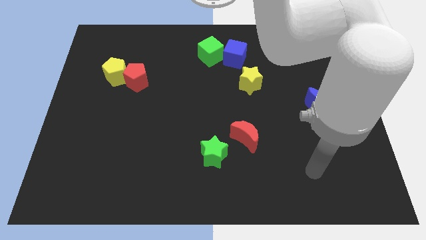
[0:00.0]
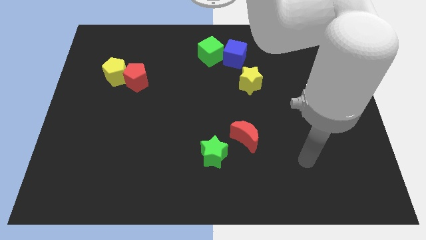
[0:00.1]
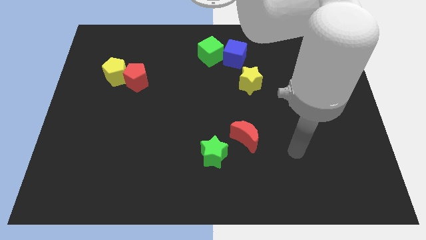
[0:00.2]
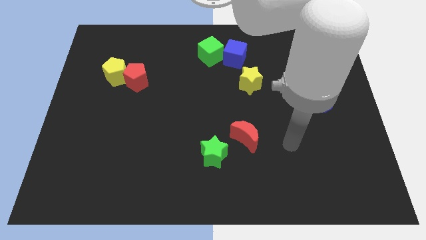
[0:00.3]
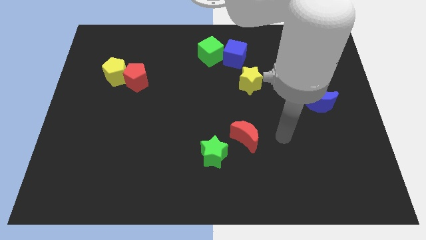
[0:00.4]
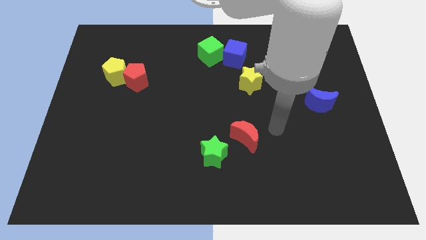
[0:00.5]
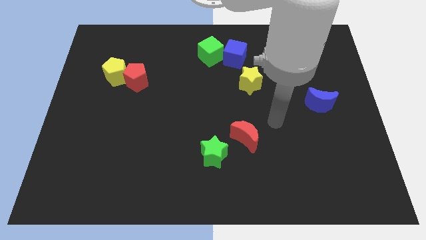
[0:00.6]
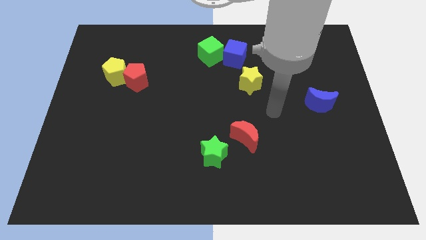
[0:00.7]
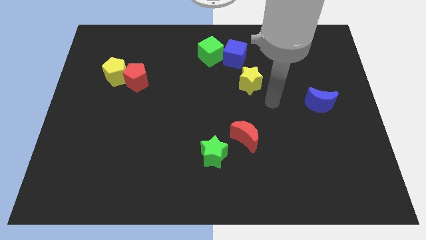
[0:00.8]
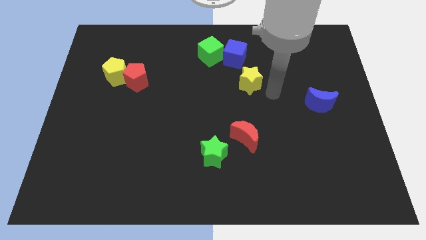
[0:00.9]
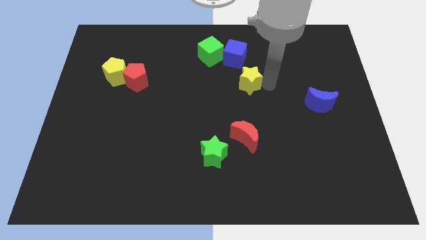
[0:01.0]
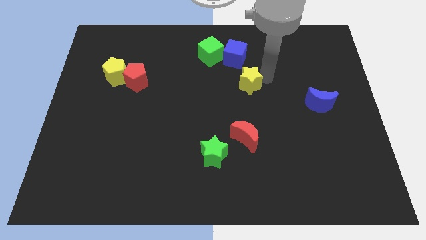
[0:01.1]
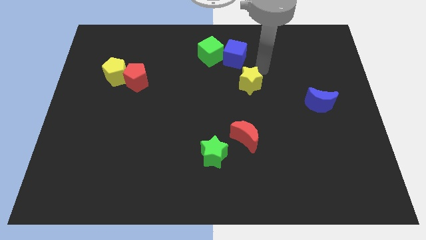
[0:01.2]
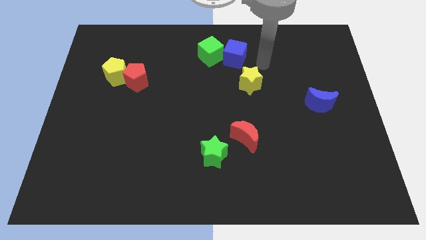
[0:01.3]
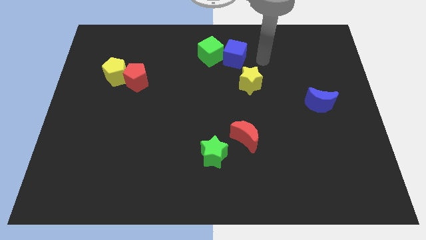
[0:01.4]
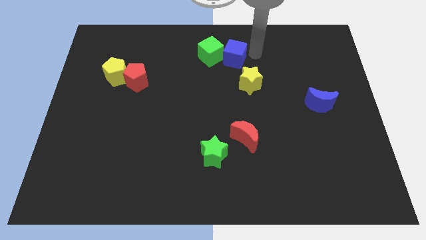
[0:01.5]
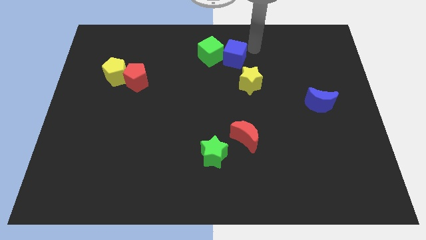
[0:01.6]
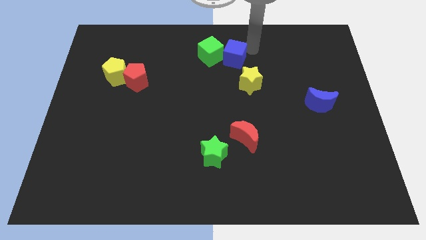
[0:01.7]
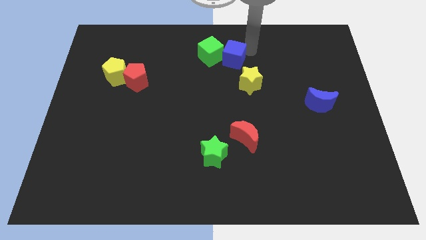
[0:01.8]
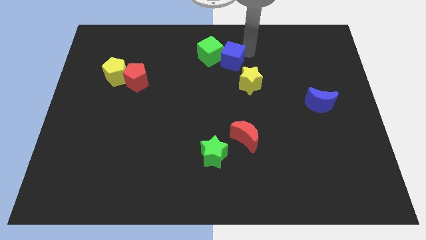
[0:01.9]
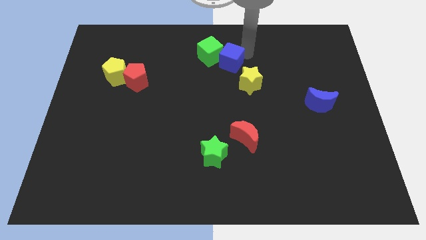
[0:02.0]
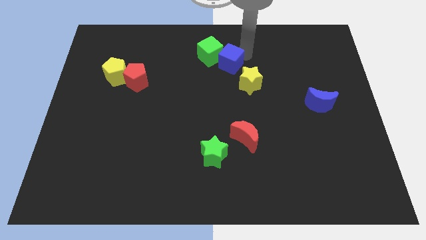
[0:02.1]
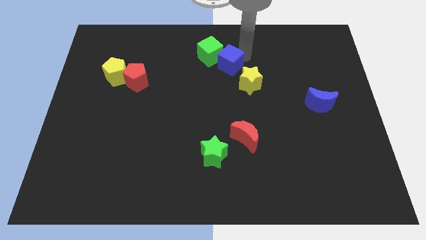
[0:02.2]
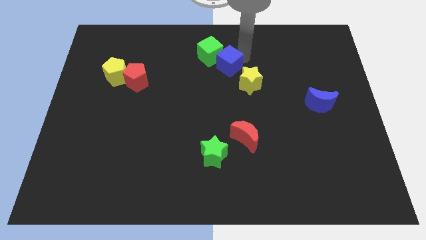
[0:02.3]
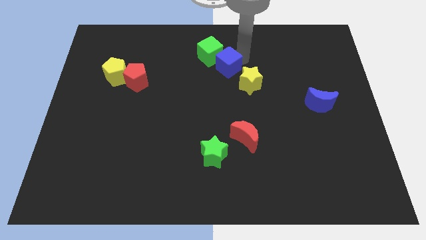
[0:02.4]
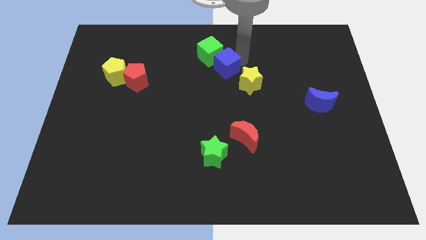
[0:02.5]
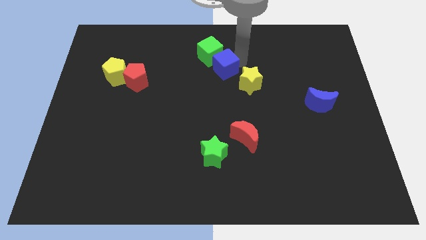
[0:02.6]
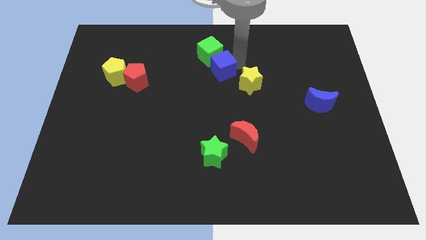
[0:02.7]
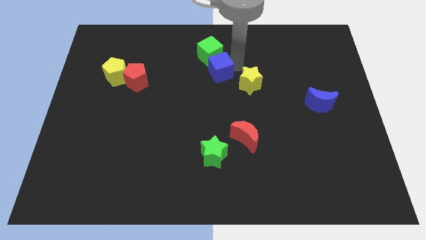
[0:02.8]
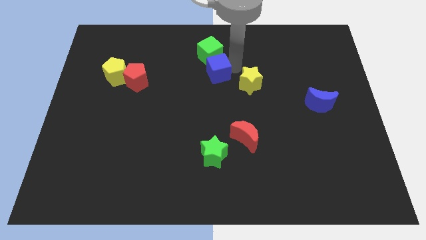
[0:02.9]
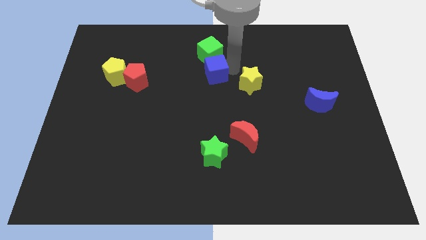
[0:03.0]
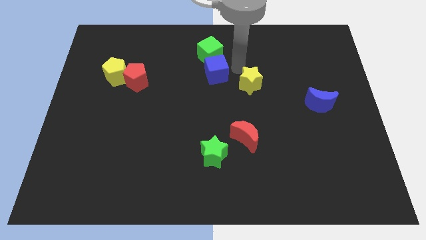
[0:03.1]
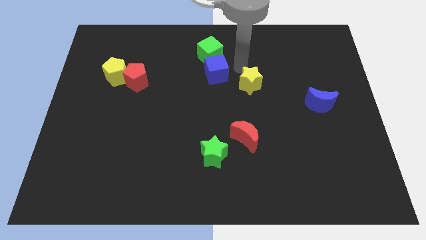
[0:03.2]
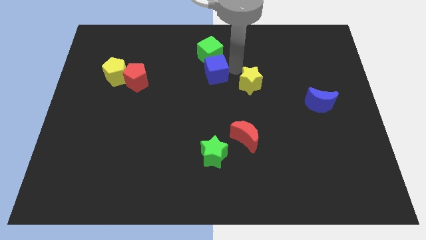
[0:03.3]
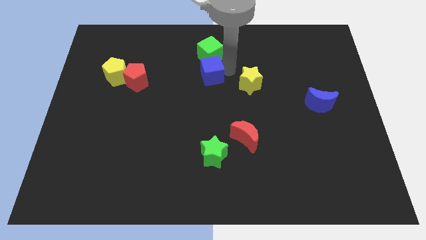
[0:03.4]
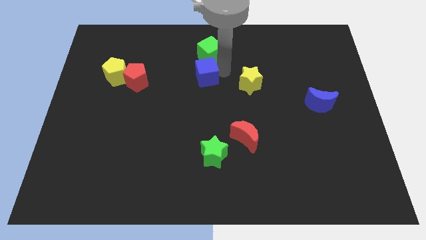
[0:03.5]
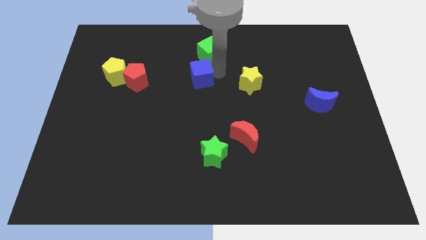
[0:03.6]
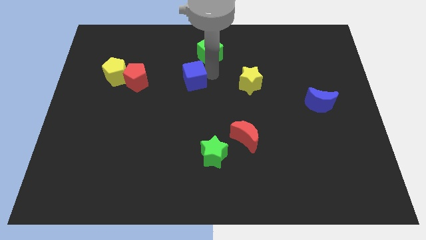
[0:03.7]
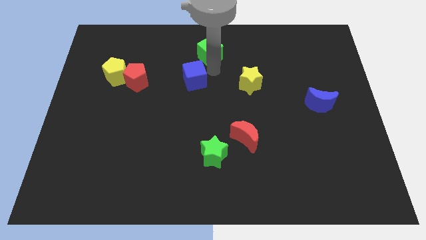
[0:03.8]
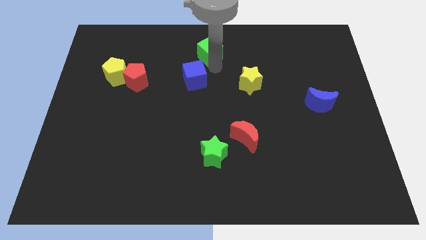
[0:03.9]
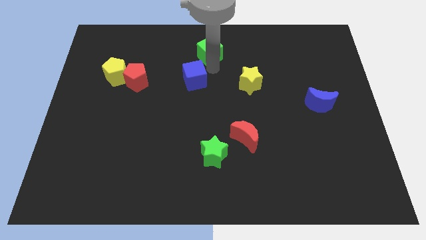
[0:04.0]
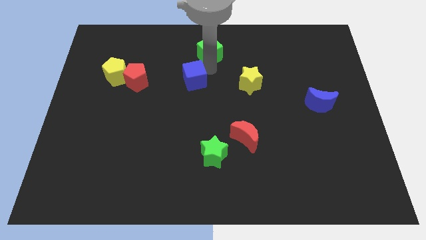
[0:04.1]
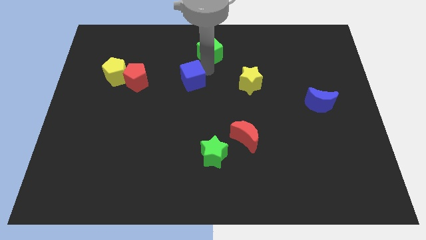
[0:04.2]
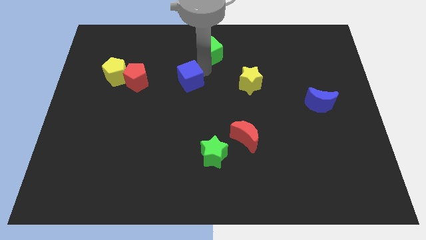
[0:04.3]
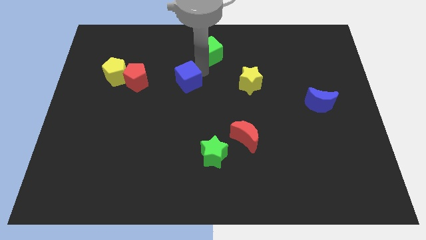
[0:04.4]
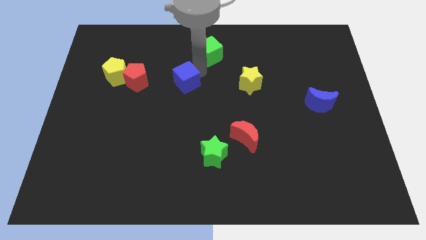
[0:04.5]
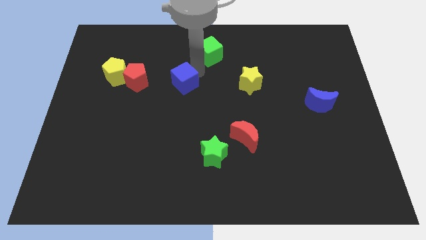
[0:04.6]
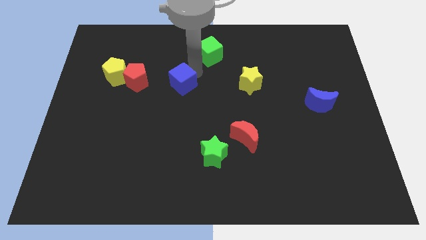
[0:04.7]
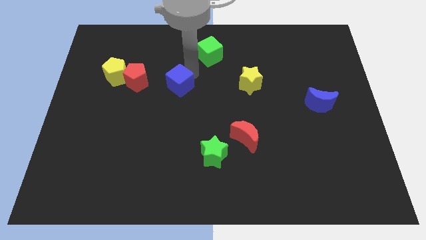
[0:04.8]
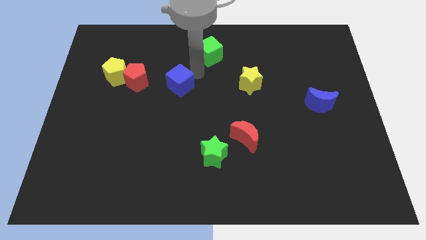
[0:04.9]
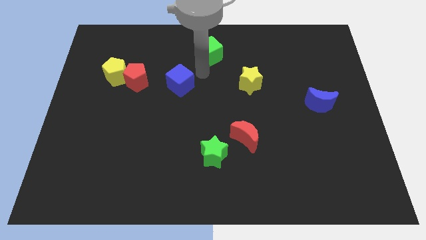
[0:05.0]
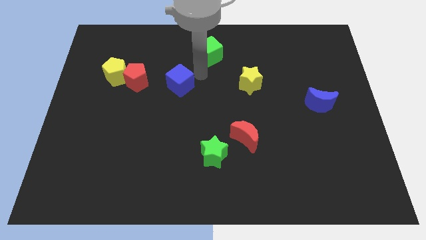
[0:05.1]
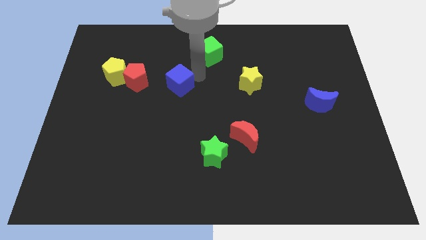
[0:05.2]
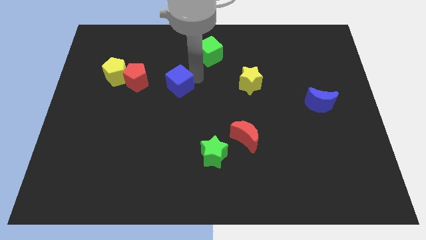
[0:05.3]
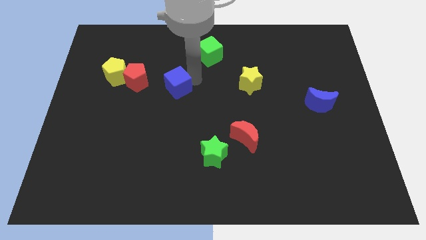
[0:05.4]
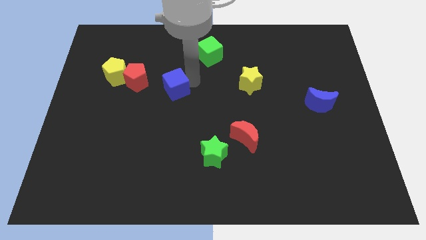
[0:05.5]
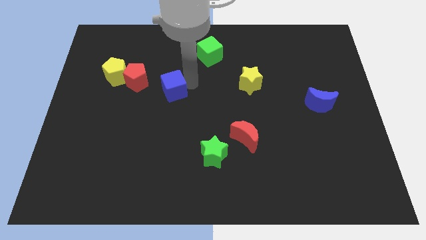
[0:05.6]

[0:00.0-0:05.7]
slide the blue cube to the bottom right side of the red pentagon

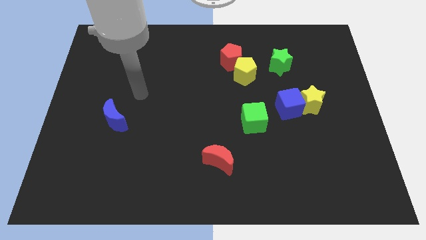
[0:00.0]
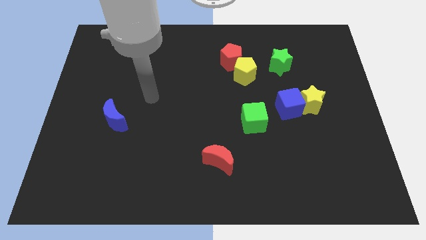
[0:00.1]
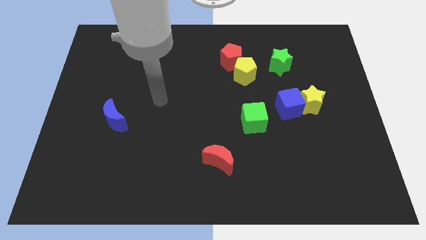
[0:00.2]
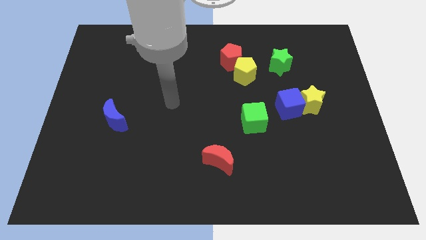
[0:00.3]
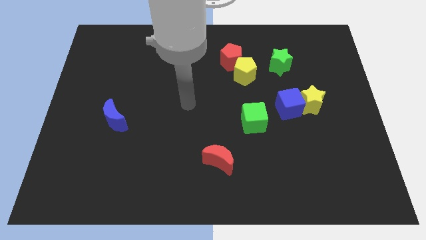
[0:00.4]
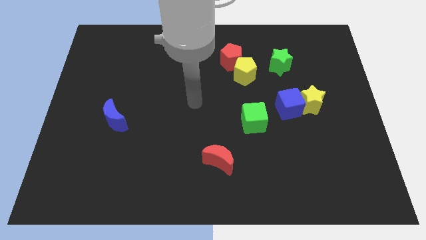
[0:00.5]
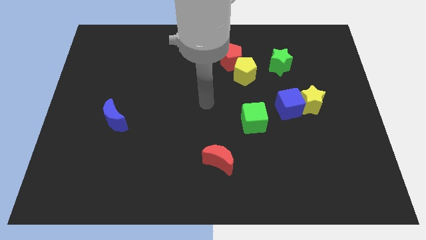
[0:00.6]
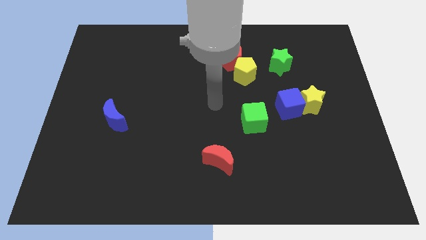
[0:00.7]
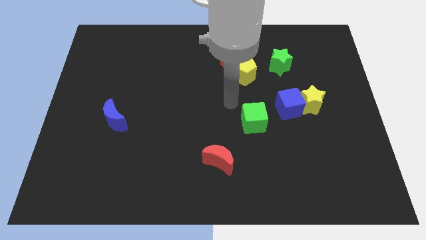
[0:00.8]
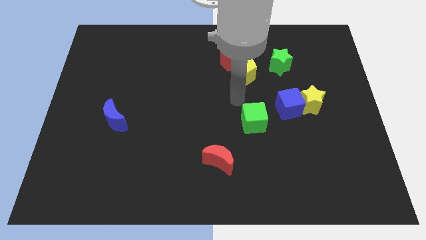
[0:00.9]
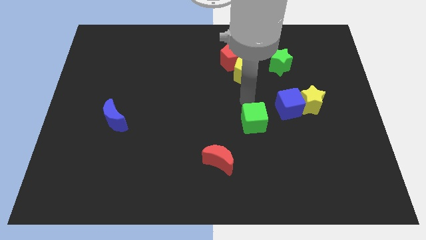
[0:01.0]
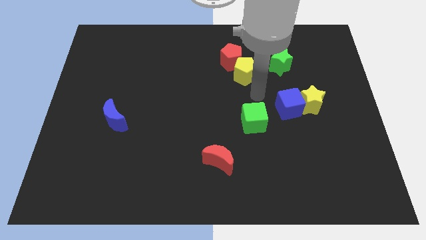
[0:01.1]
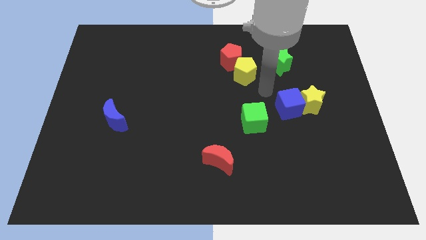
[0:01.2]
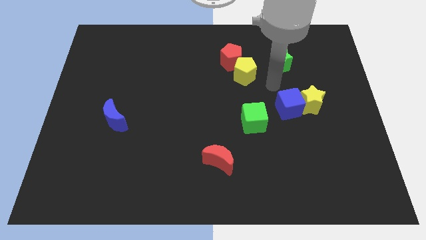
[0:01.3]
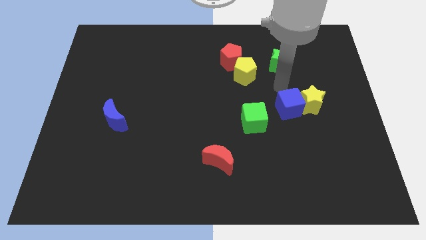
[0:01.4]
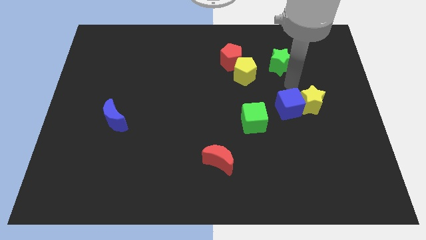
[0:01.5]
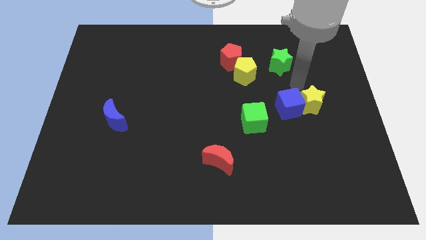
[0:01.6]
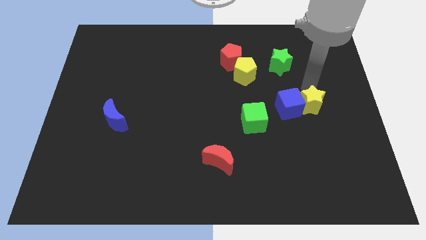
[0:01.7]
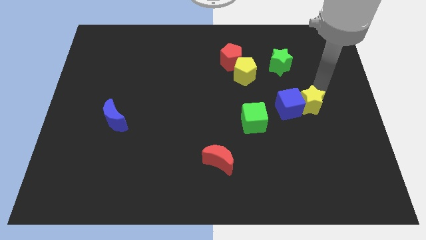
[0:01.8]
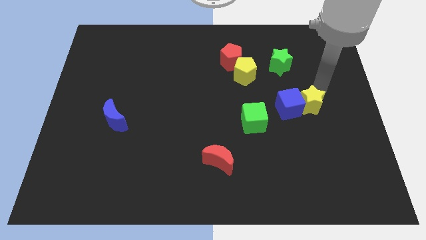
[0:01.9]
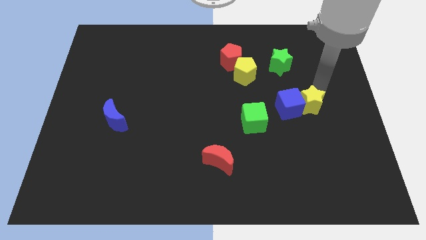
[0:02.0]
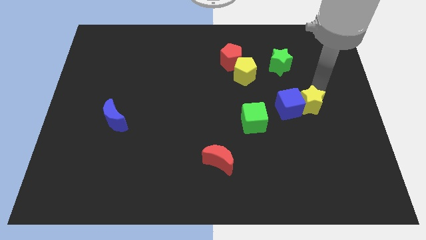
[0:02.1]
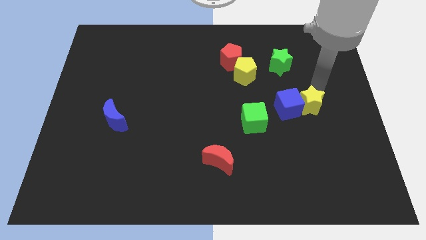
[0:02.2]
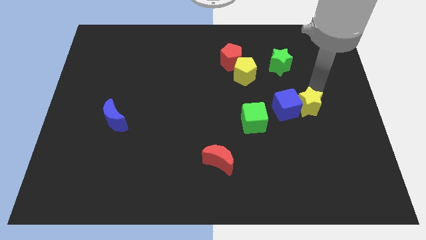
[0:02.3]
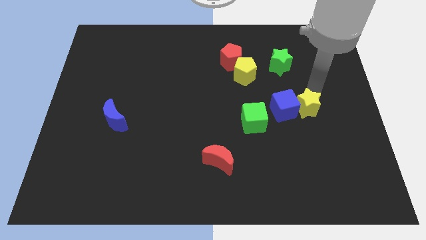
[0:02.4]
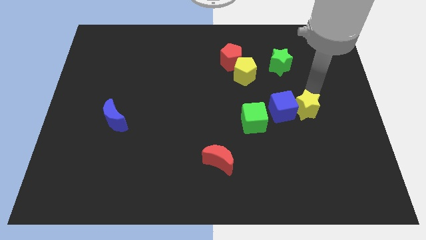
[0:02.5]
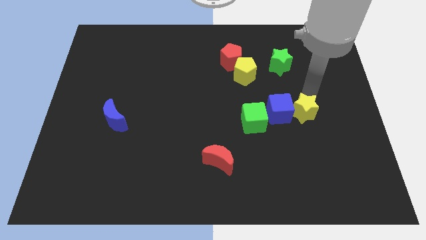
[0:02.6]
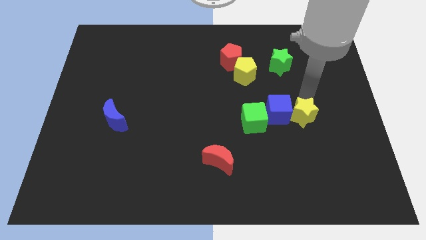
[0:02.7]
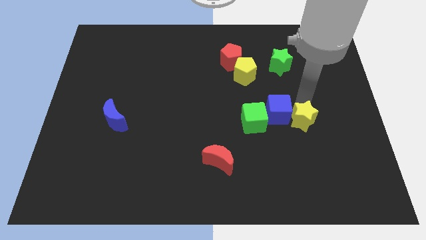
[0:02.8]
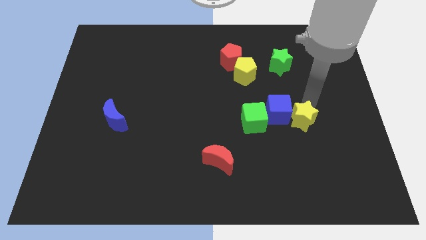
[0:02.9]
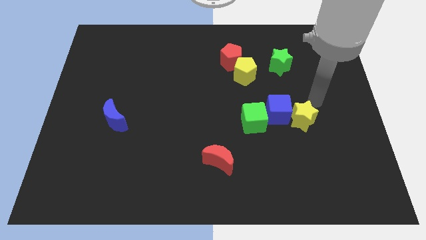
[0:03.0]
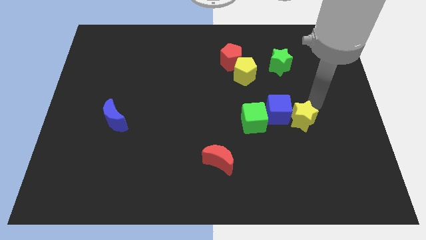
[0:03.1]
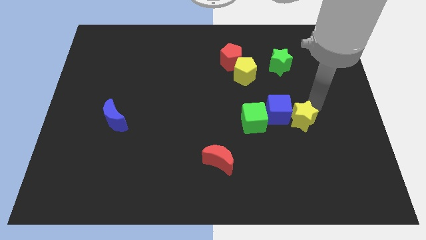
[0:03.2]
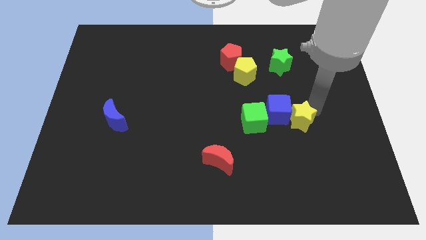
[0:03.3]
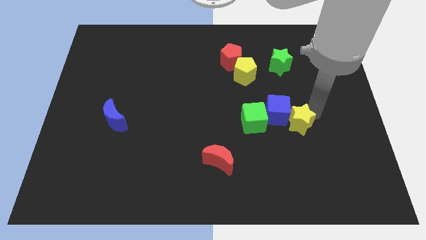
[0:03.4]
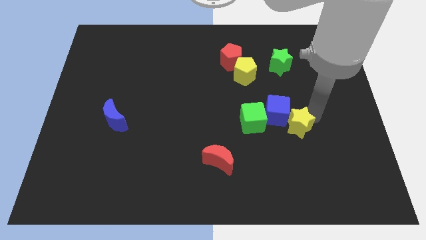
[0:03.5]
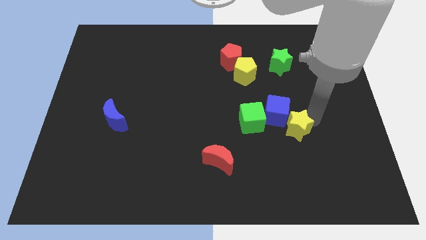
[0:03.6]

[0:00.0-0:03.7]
put the yellow star to the bottom side of the blue cube
